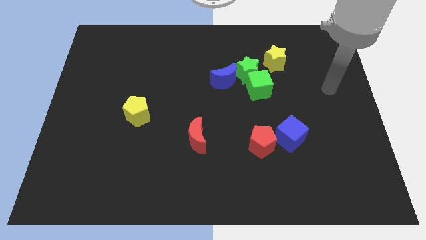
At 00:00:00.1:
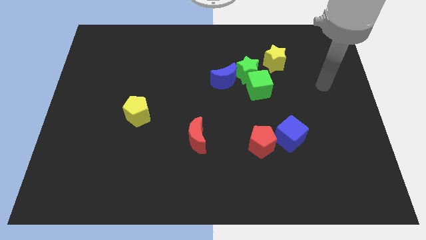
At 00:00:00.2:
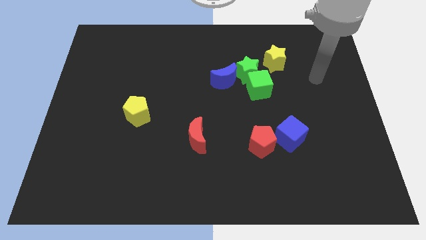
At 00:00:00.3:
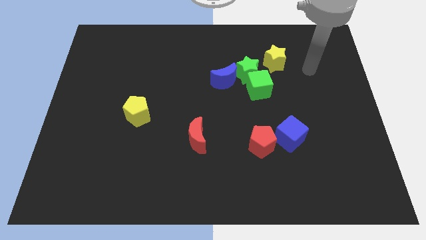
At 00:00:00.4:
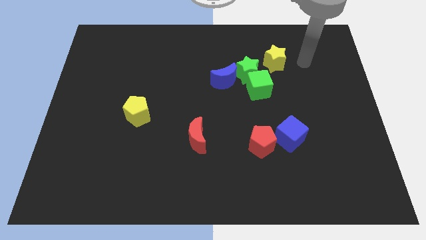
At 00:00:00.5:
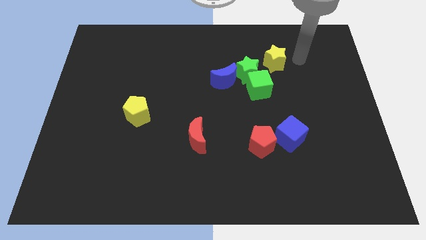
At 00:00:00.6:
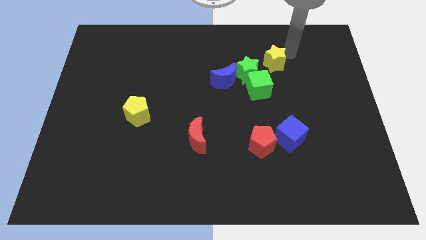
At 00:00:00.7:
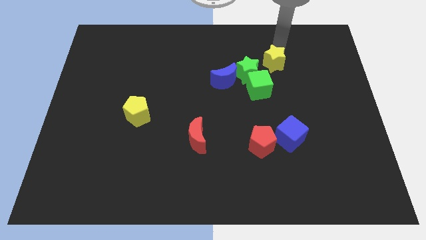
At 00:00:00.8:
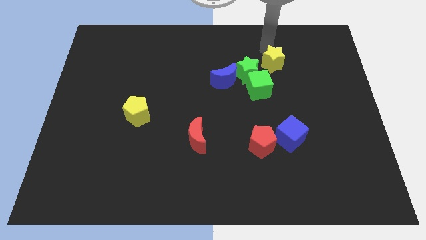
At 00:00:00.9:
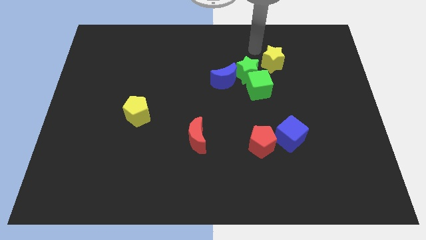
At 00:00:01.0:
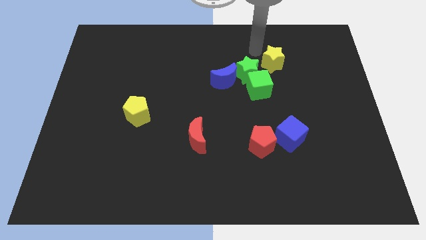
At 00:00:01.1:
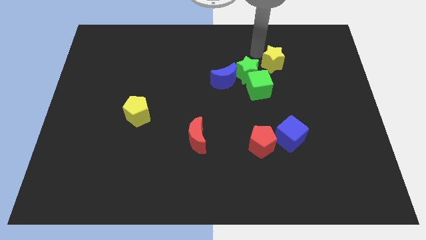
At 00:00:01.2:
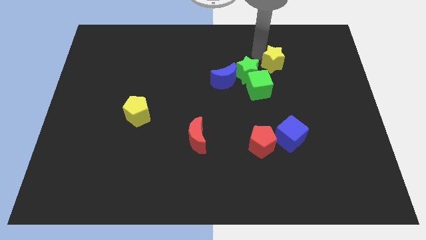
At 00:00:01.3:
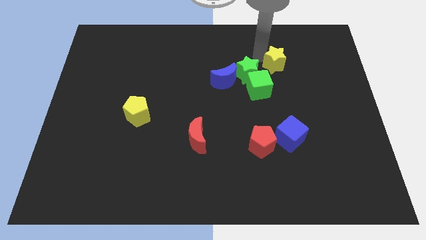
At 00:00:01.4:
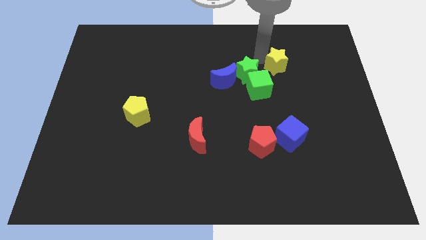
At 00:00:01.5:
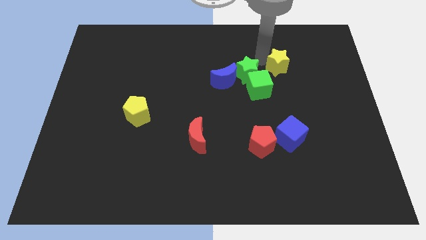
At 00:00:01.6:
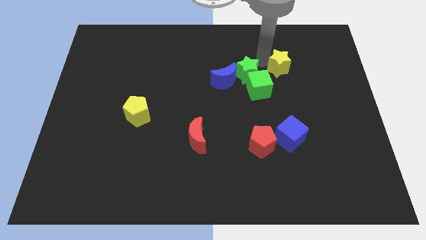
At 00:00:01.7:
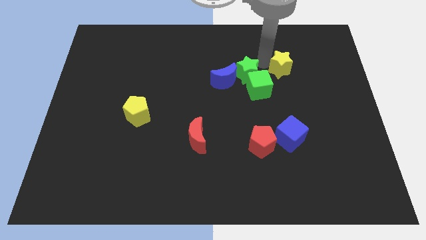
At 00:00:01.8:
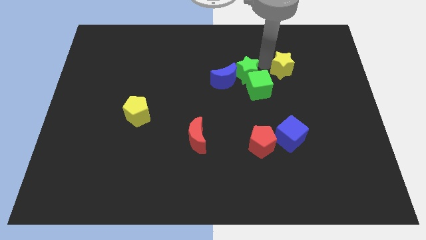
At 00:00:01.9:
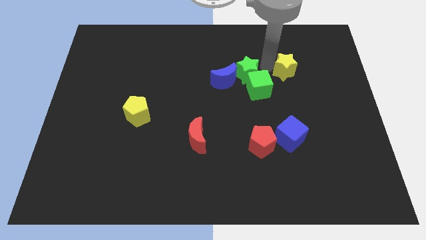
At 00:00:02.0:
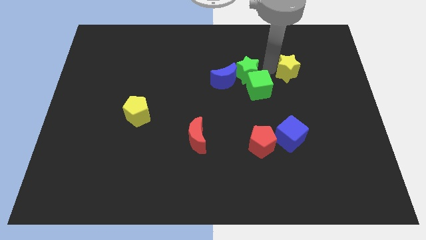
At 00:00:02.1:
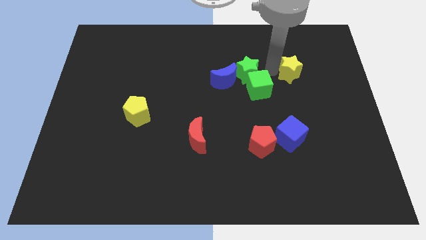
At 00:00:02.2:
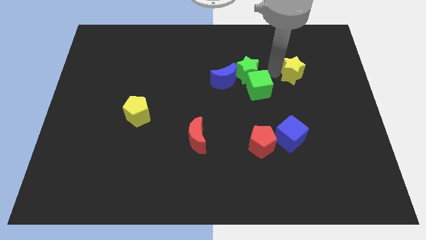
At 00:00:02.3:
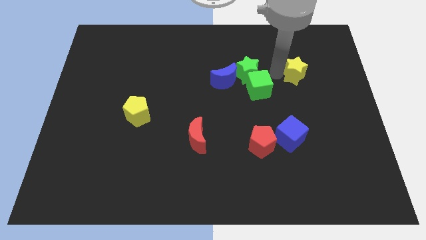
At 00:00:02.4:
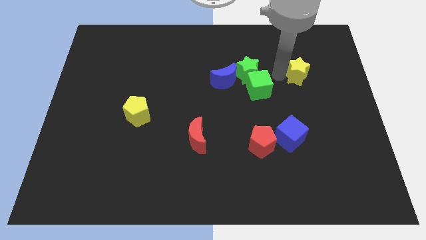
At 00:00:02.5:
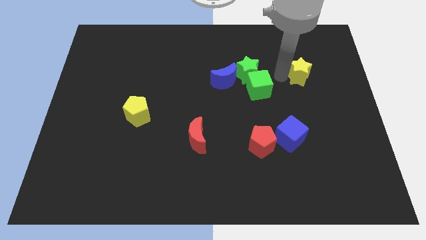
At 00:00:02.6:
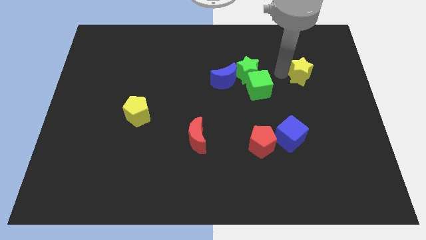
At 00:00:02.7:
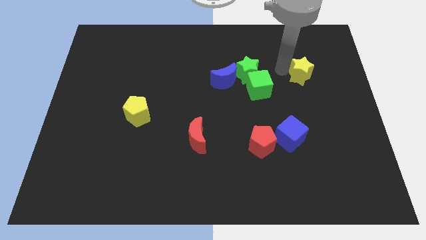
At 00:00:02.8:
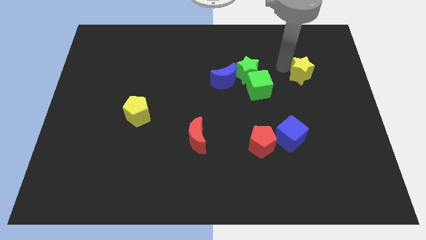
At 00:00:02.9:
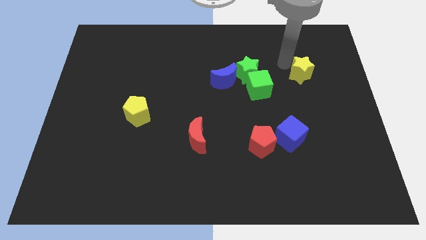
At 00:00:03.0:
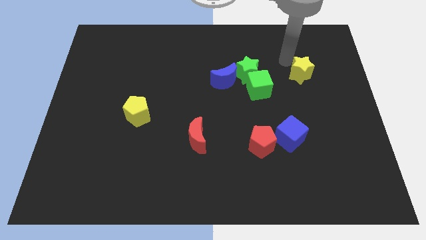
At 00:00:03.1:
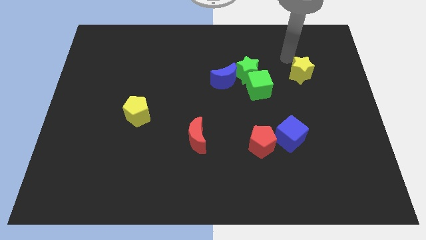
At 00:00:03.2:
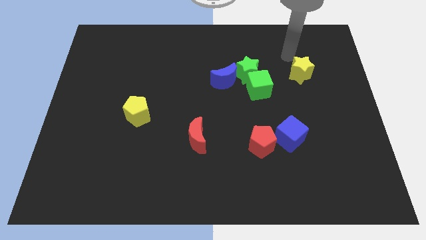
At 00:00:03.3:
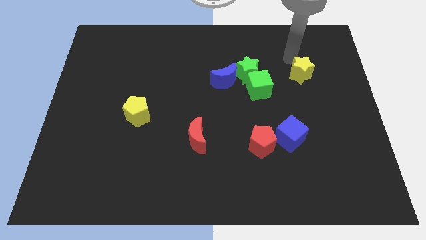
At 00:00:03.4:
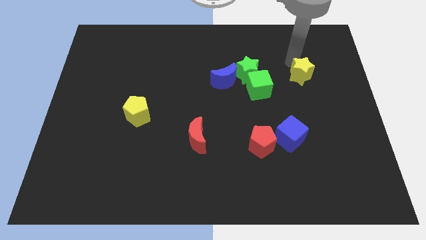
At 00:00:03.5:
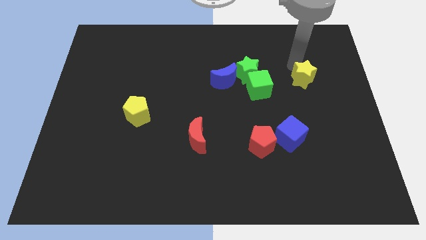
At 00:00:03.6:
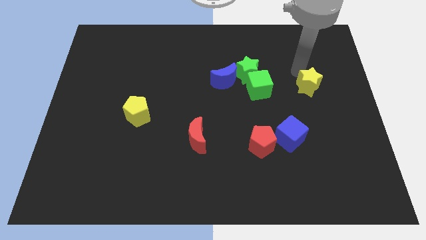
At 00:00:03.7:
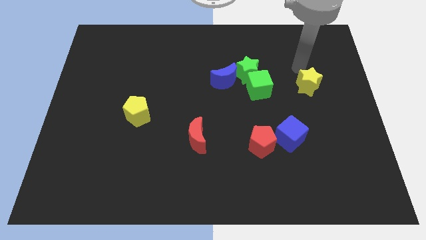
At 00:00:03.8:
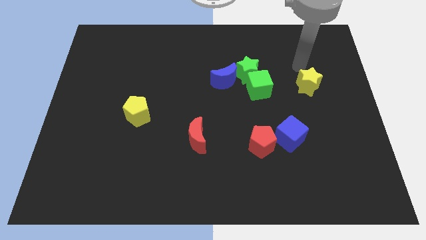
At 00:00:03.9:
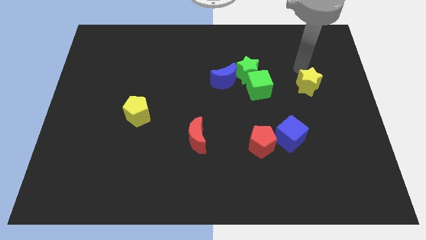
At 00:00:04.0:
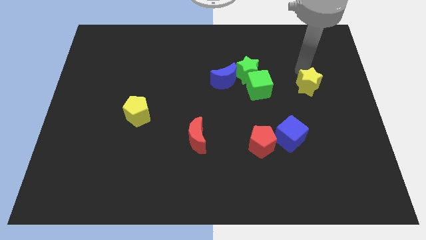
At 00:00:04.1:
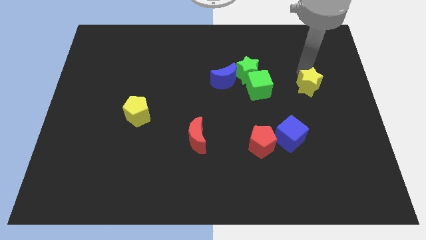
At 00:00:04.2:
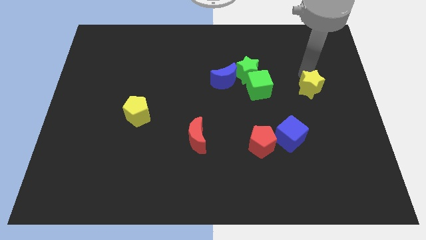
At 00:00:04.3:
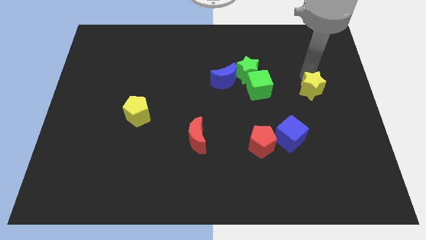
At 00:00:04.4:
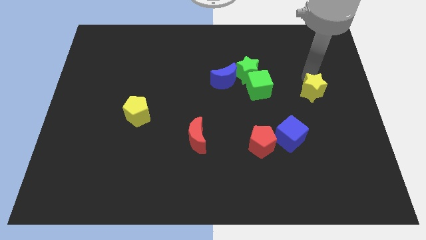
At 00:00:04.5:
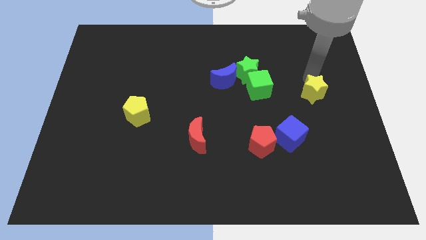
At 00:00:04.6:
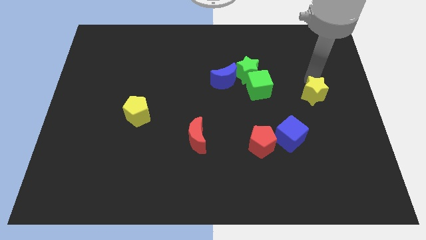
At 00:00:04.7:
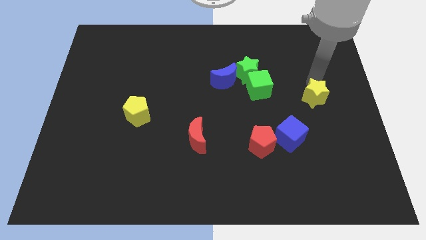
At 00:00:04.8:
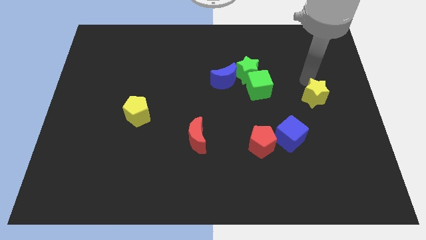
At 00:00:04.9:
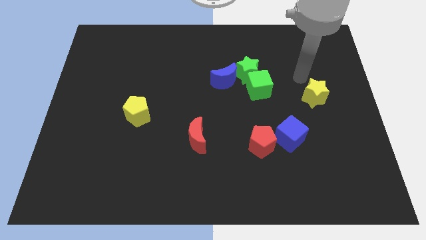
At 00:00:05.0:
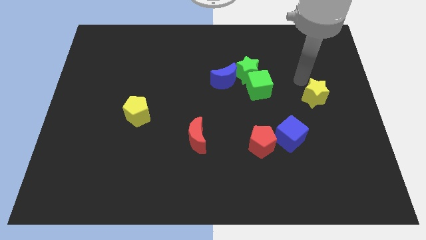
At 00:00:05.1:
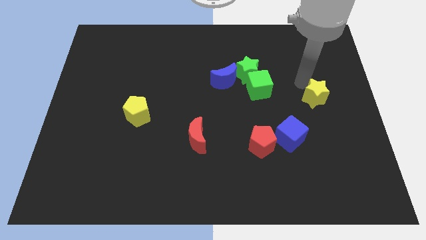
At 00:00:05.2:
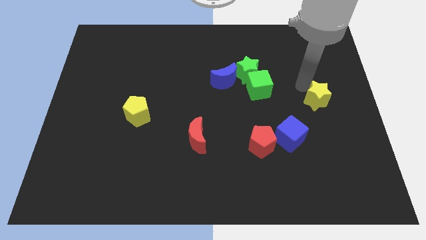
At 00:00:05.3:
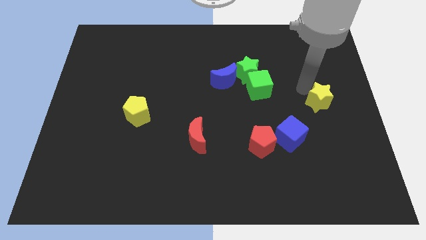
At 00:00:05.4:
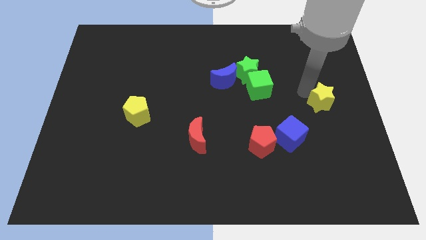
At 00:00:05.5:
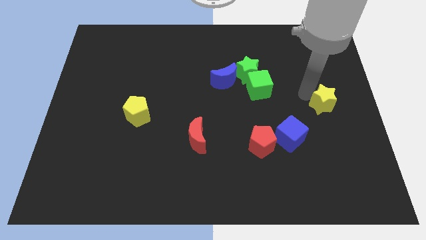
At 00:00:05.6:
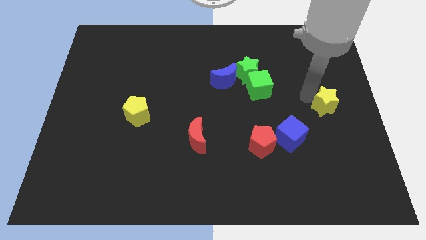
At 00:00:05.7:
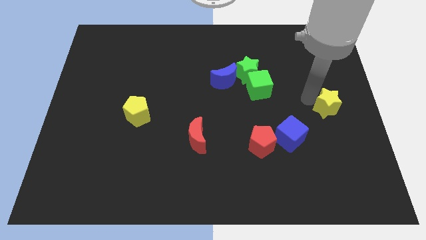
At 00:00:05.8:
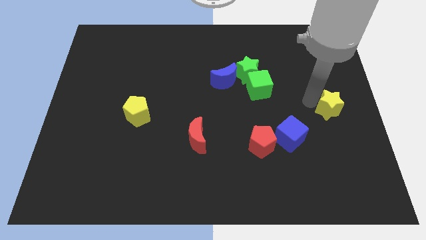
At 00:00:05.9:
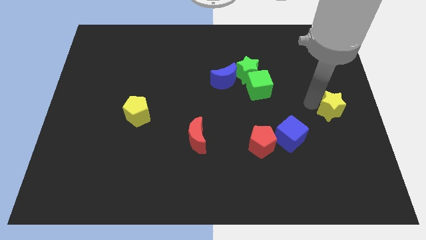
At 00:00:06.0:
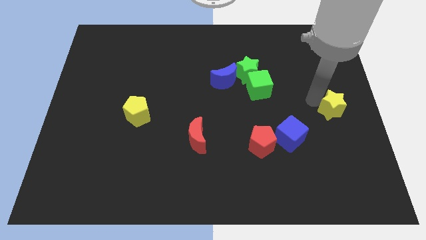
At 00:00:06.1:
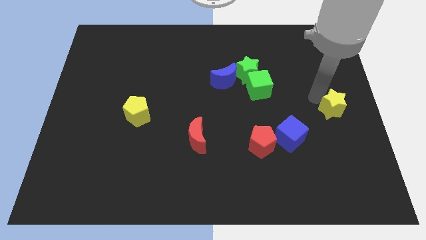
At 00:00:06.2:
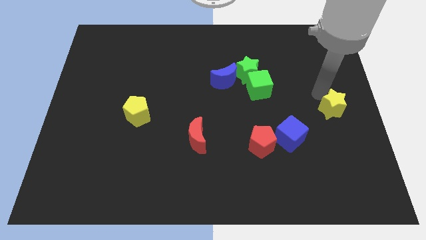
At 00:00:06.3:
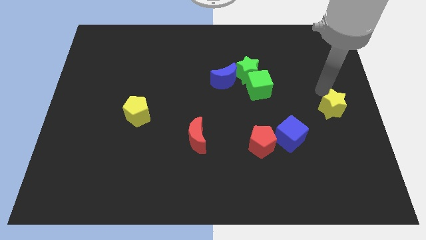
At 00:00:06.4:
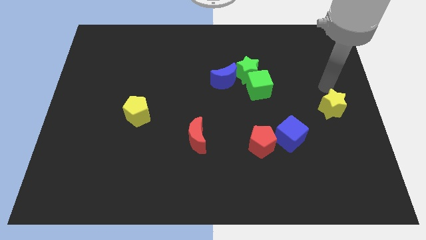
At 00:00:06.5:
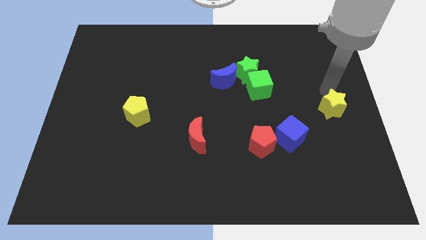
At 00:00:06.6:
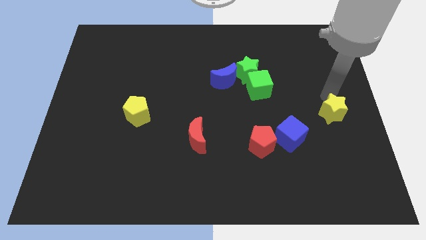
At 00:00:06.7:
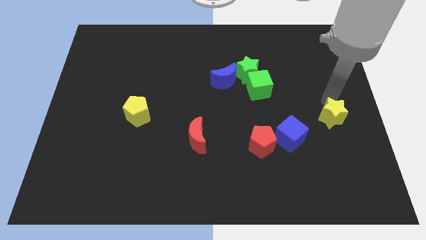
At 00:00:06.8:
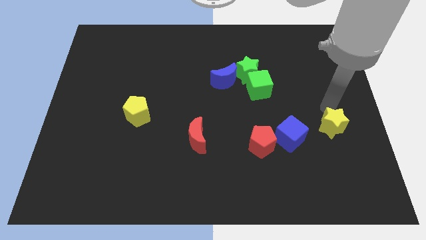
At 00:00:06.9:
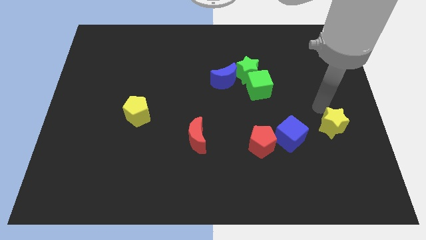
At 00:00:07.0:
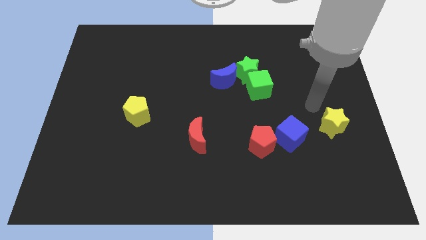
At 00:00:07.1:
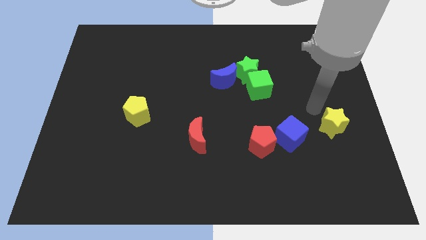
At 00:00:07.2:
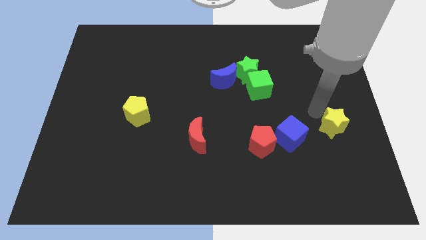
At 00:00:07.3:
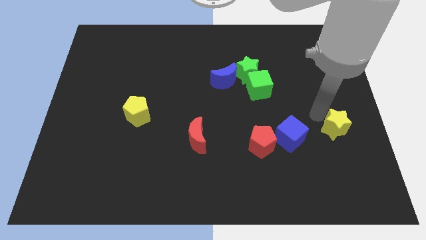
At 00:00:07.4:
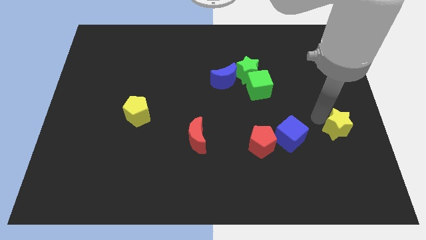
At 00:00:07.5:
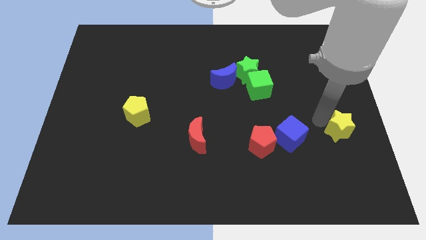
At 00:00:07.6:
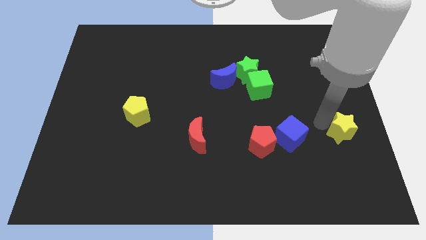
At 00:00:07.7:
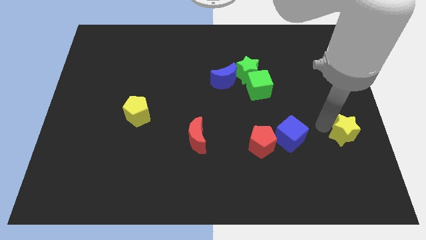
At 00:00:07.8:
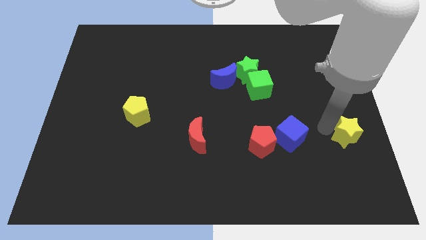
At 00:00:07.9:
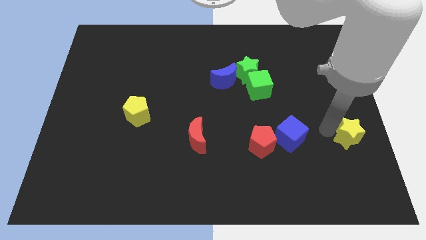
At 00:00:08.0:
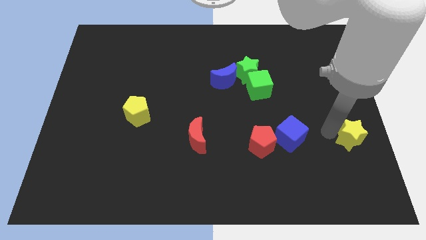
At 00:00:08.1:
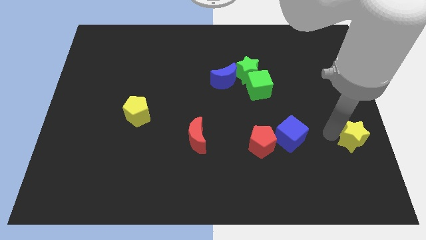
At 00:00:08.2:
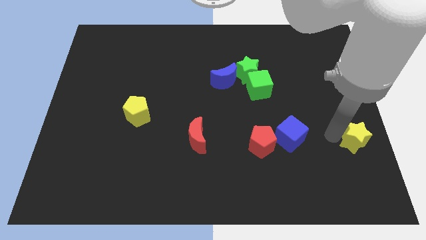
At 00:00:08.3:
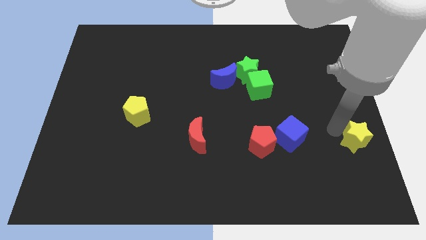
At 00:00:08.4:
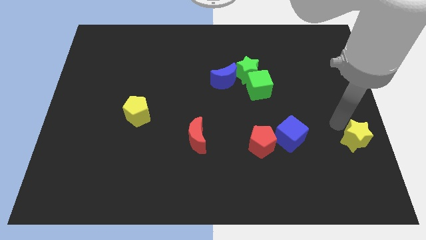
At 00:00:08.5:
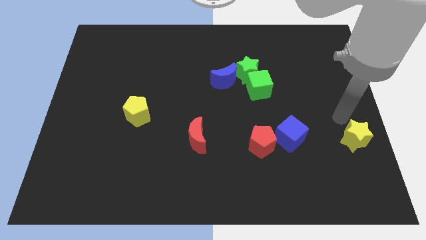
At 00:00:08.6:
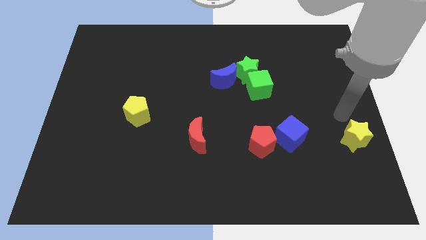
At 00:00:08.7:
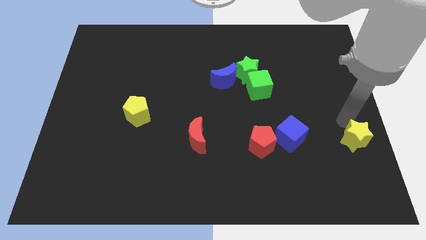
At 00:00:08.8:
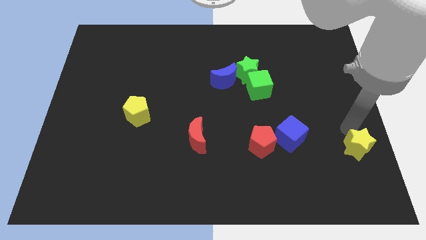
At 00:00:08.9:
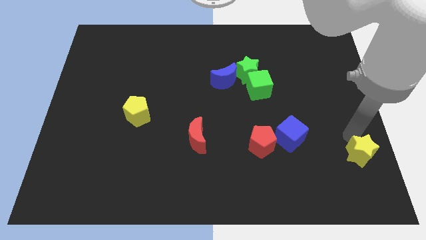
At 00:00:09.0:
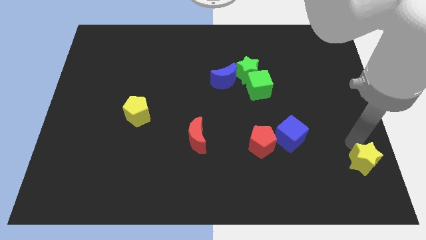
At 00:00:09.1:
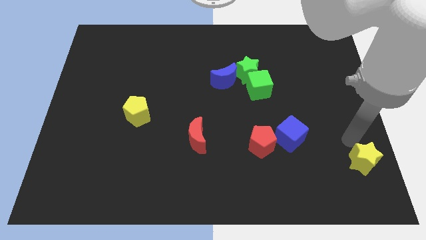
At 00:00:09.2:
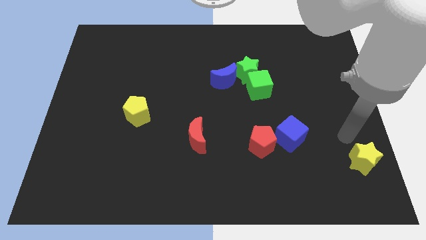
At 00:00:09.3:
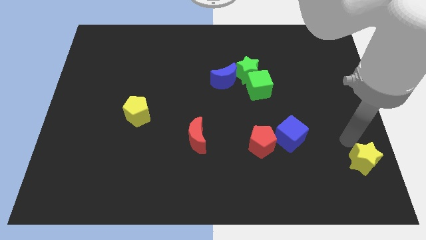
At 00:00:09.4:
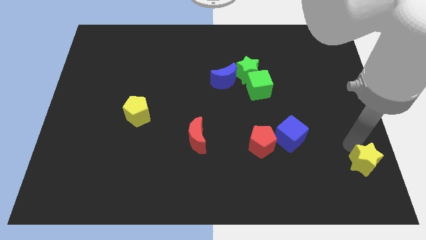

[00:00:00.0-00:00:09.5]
slide the yellow star to the lower right corner
